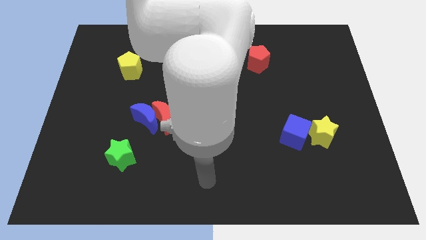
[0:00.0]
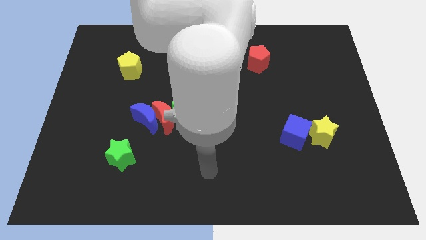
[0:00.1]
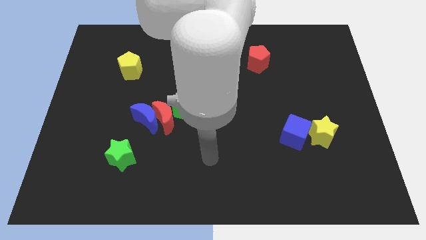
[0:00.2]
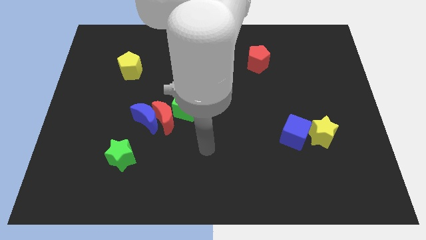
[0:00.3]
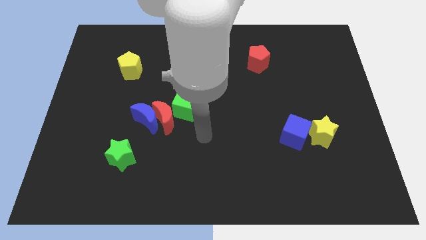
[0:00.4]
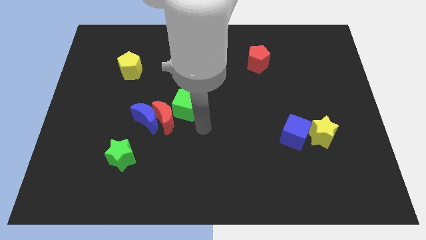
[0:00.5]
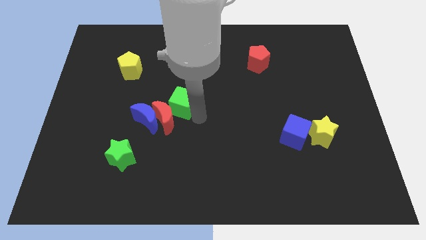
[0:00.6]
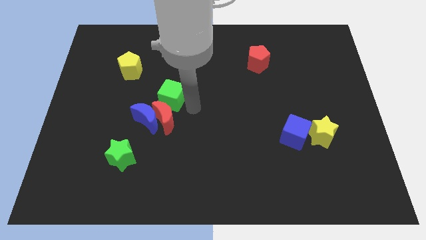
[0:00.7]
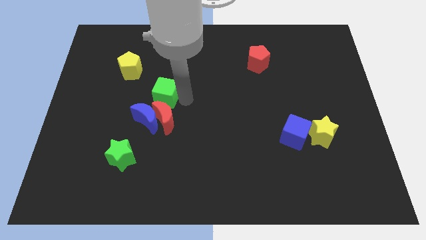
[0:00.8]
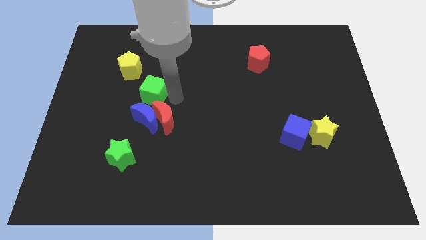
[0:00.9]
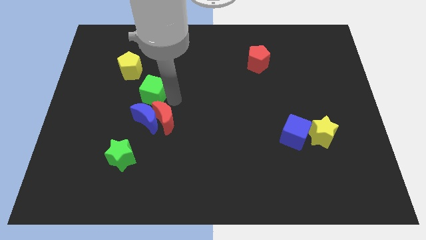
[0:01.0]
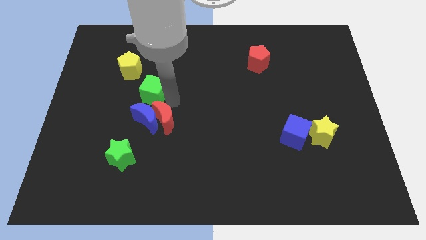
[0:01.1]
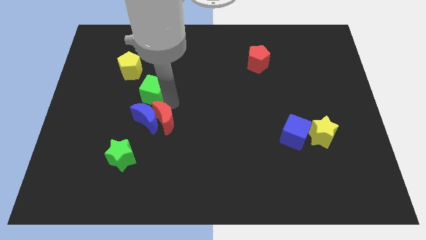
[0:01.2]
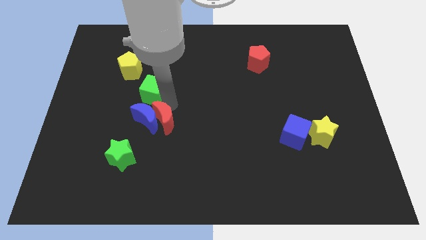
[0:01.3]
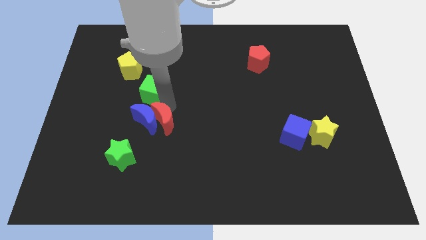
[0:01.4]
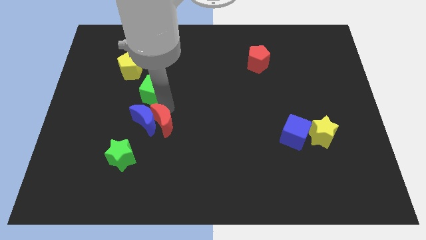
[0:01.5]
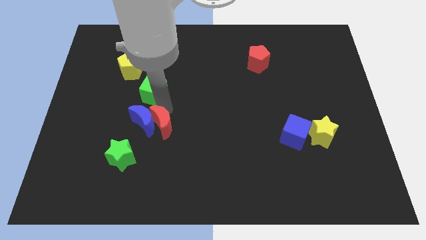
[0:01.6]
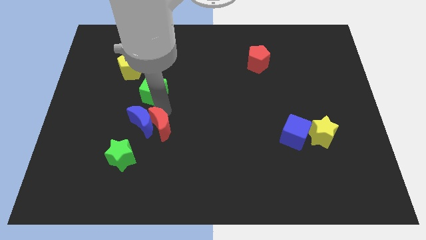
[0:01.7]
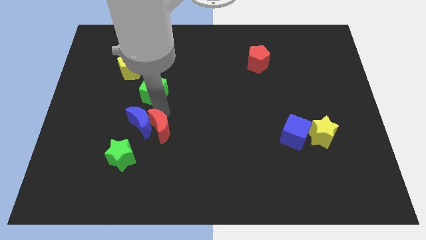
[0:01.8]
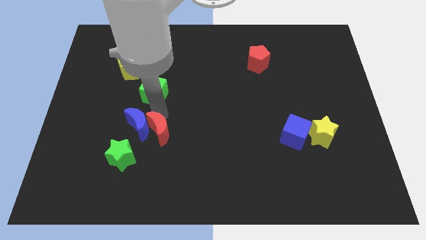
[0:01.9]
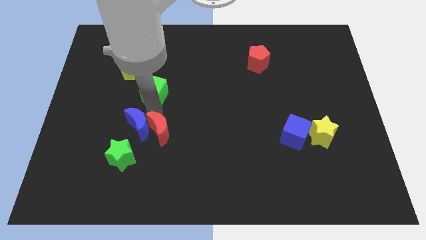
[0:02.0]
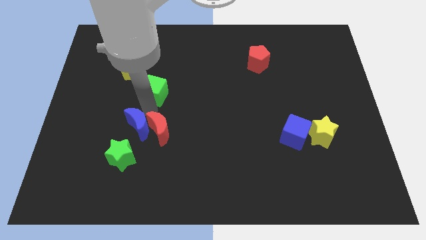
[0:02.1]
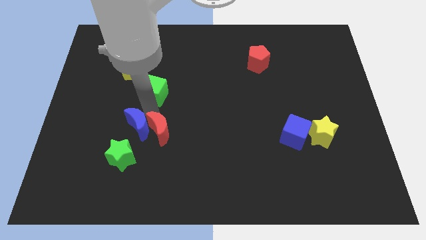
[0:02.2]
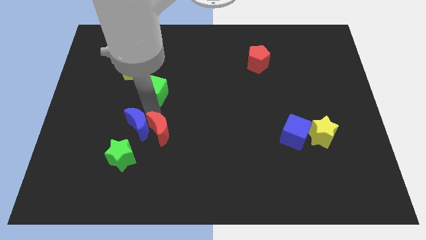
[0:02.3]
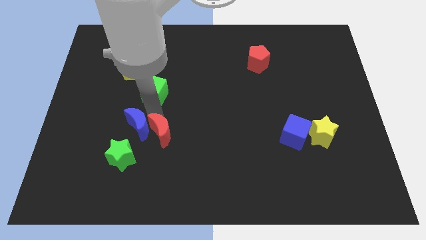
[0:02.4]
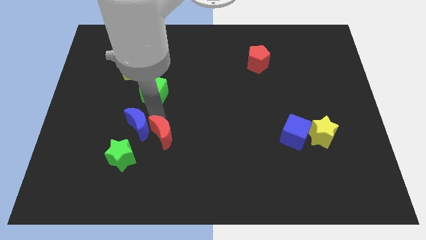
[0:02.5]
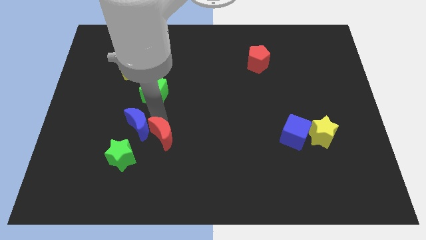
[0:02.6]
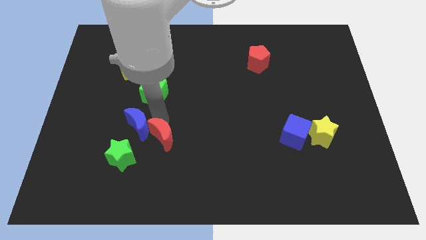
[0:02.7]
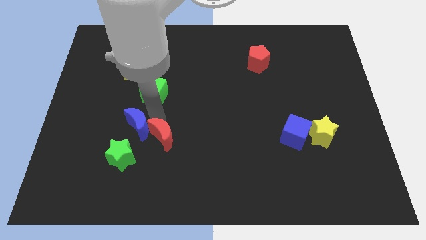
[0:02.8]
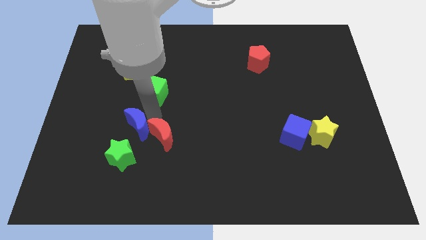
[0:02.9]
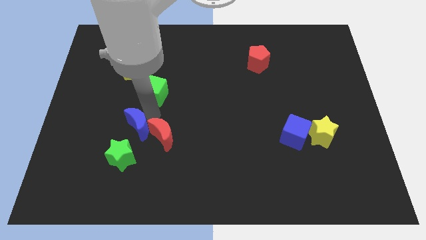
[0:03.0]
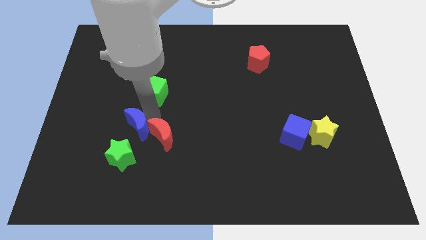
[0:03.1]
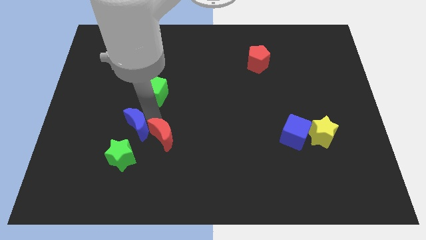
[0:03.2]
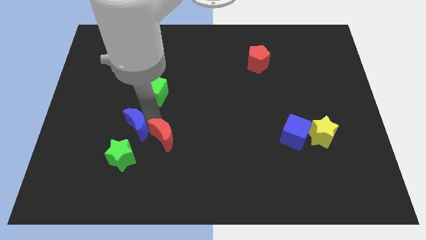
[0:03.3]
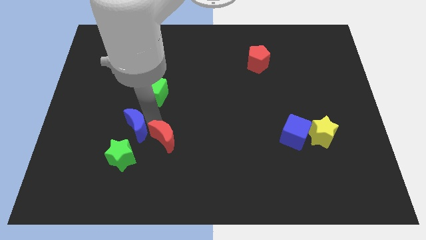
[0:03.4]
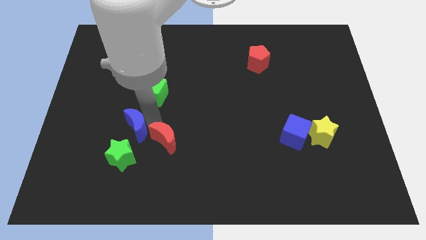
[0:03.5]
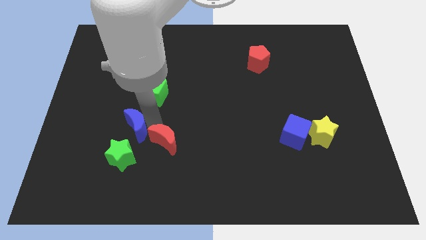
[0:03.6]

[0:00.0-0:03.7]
pull the red moon apart from the blue moon and green cube

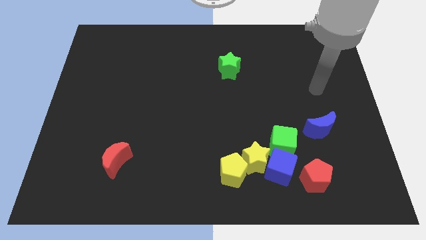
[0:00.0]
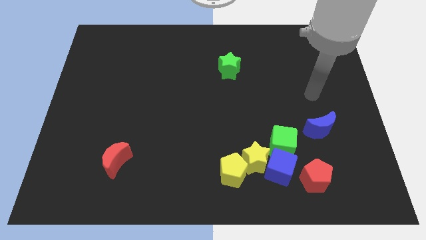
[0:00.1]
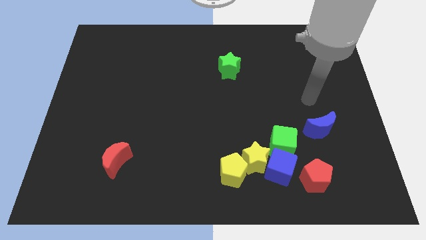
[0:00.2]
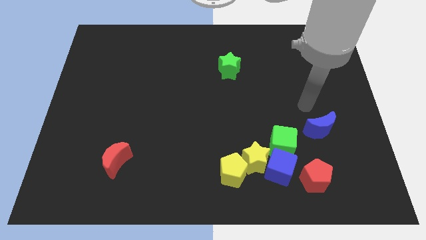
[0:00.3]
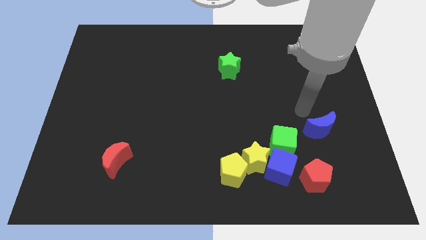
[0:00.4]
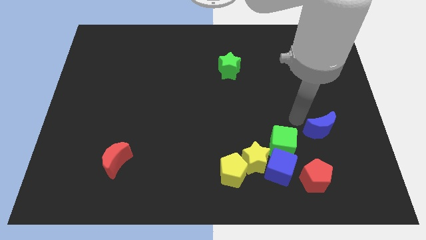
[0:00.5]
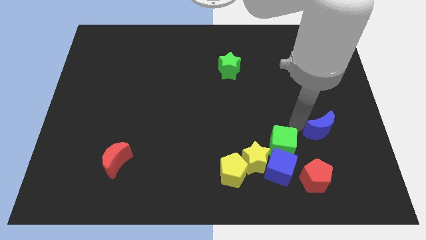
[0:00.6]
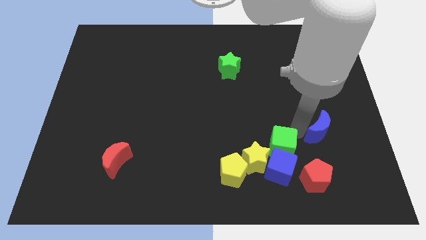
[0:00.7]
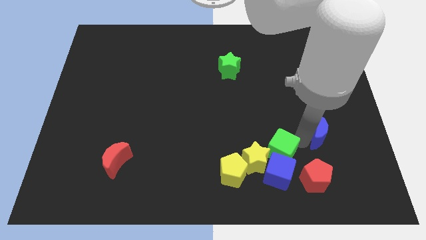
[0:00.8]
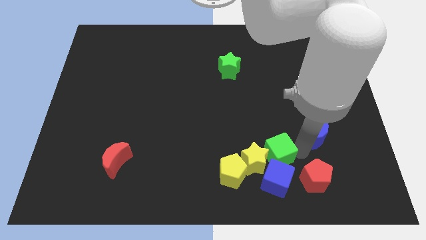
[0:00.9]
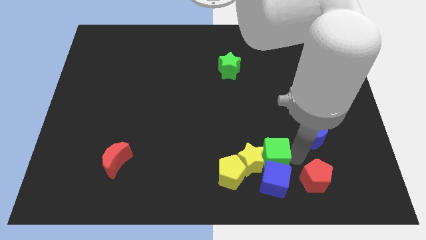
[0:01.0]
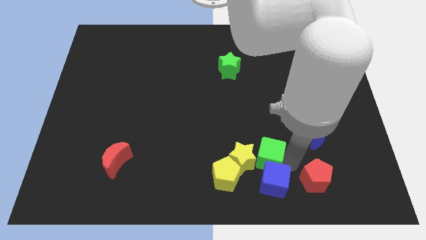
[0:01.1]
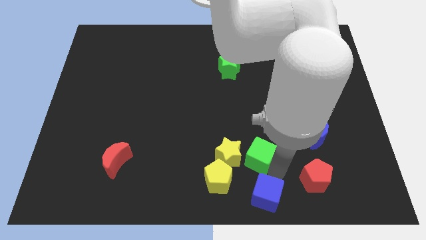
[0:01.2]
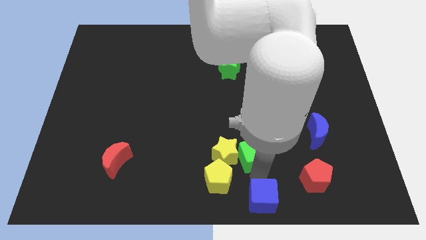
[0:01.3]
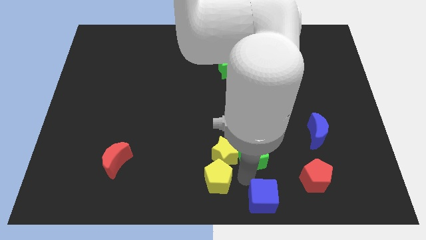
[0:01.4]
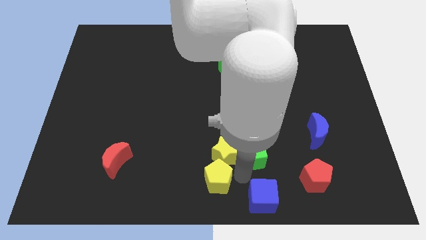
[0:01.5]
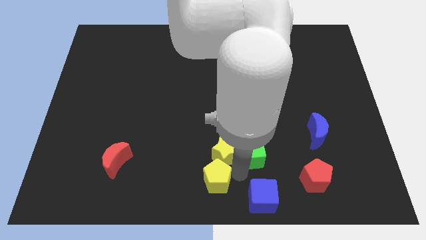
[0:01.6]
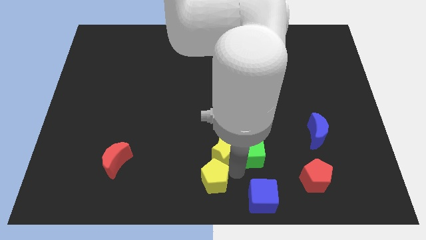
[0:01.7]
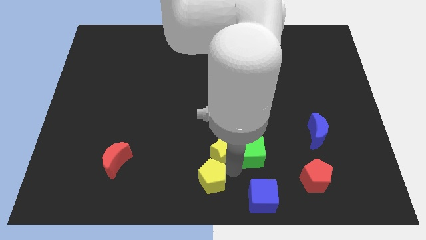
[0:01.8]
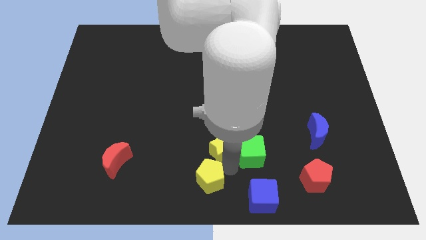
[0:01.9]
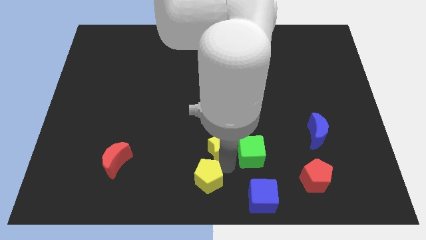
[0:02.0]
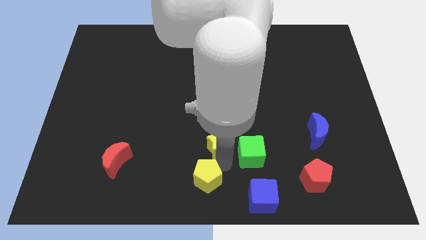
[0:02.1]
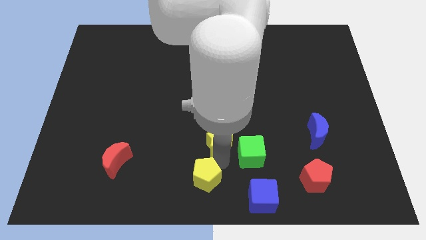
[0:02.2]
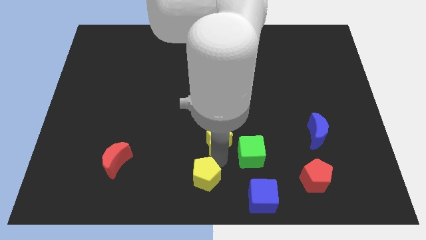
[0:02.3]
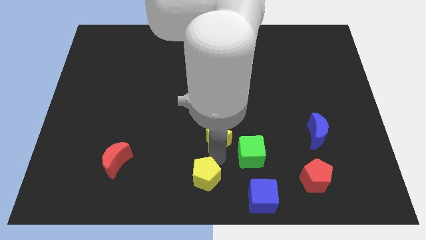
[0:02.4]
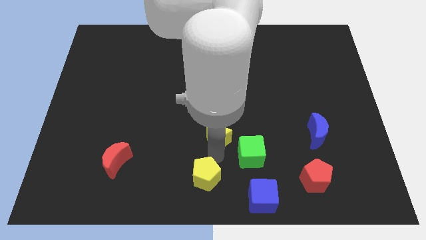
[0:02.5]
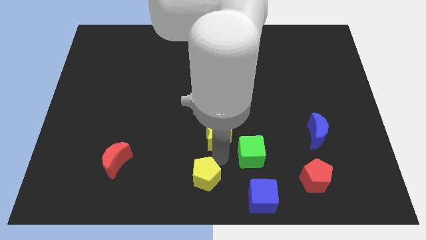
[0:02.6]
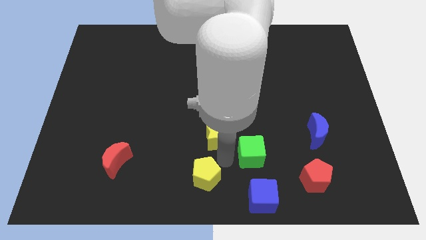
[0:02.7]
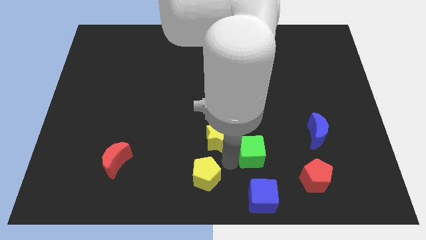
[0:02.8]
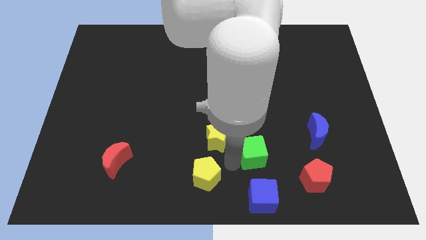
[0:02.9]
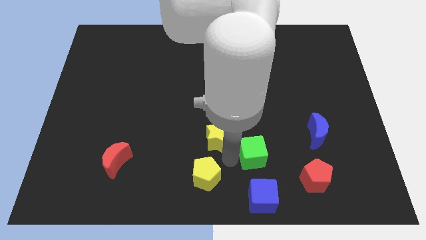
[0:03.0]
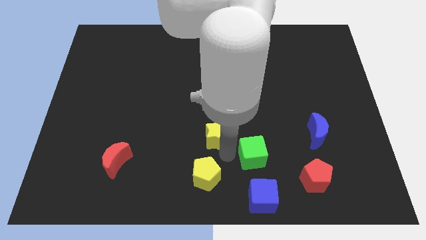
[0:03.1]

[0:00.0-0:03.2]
move the yellow star away from the blue cube, yellow pentagon, and green cube

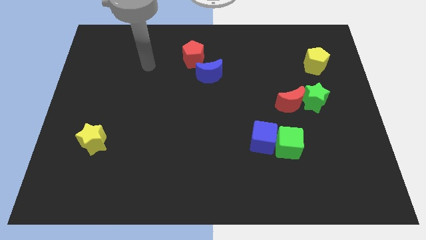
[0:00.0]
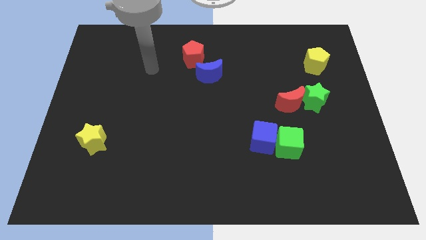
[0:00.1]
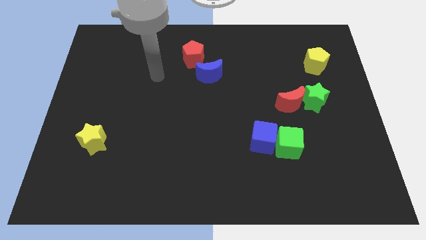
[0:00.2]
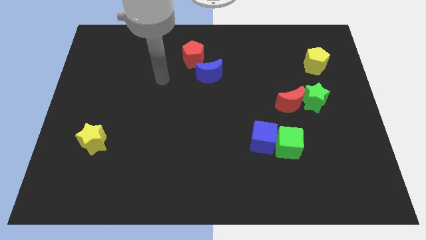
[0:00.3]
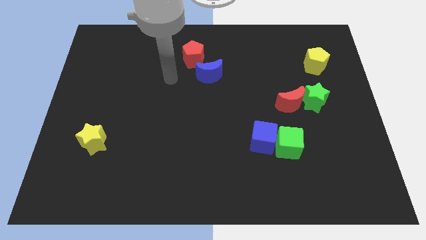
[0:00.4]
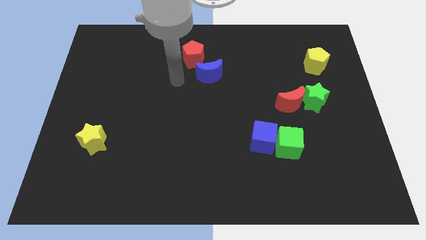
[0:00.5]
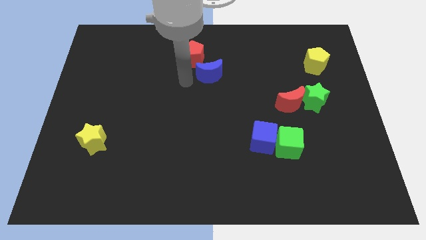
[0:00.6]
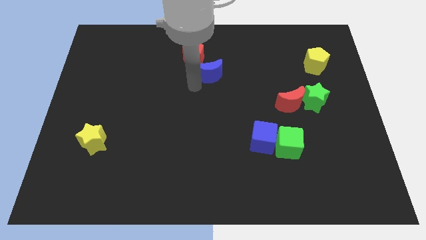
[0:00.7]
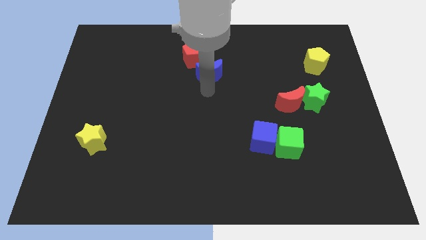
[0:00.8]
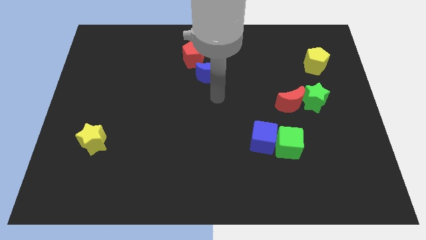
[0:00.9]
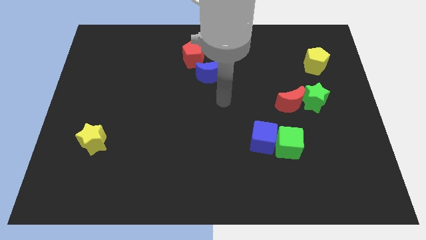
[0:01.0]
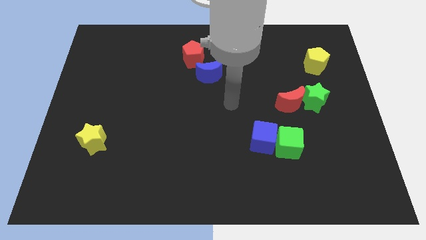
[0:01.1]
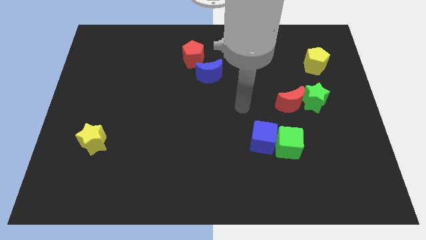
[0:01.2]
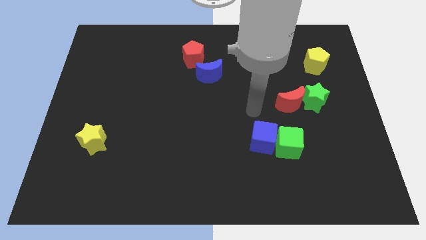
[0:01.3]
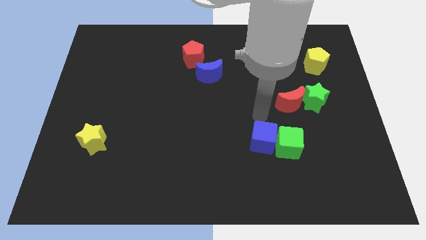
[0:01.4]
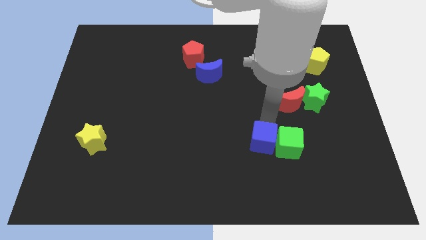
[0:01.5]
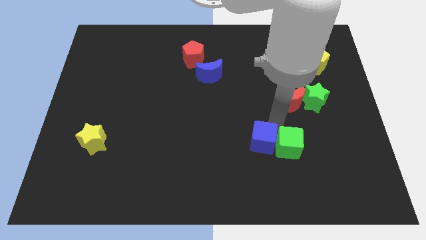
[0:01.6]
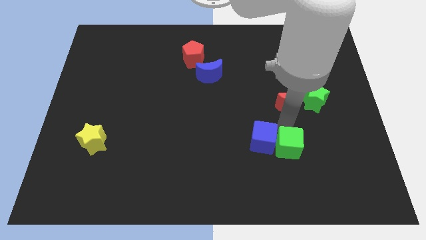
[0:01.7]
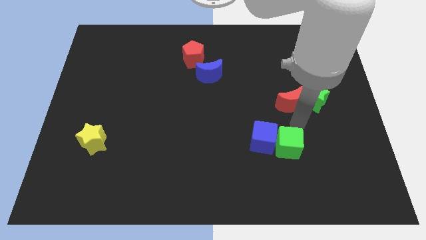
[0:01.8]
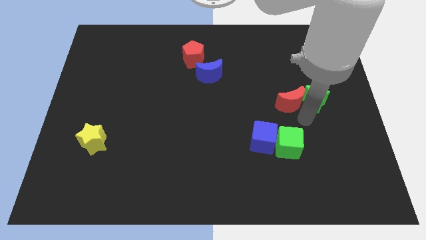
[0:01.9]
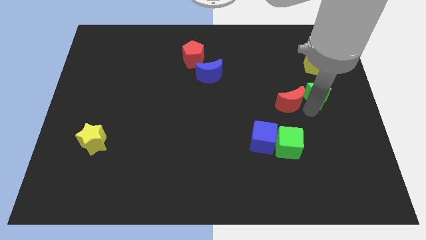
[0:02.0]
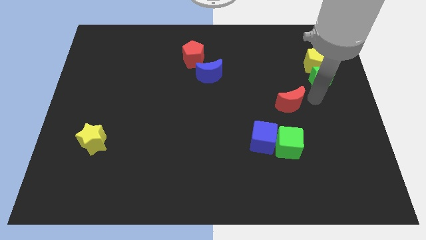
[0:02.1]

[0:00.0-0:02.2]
move the red moon away from the green star

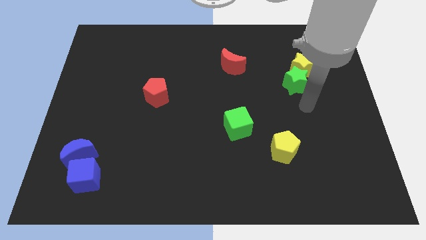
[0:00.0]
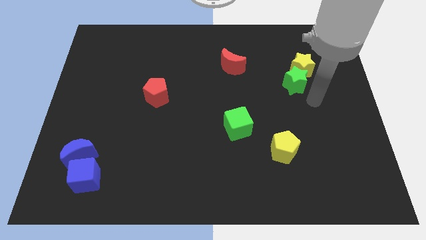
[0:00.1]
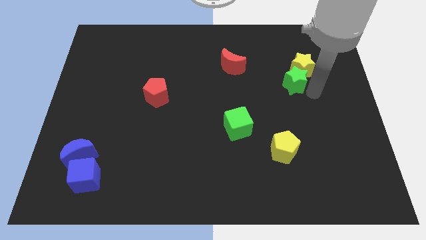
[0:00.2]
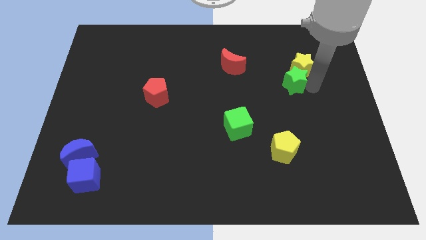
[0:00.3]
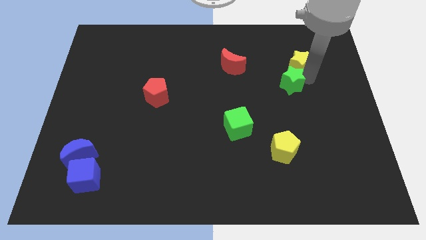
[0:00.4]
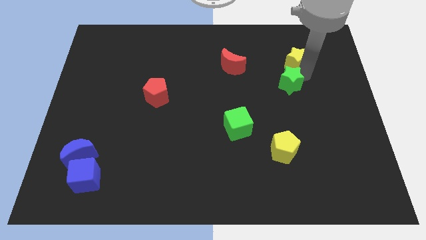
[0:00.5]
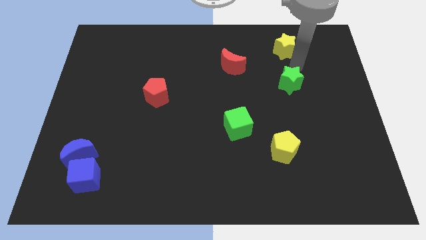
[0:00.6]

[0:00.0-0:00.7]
move the green star away from the yellow star
